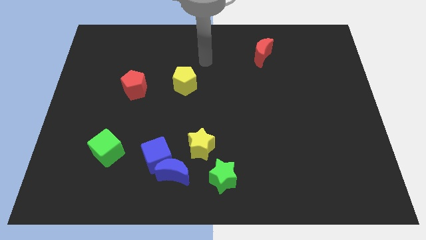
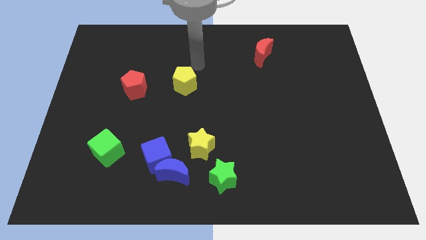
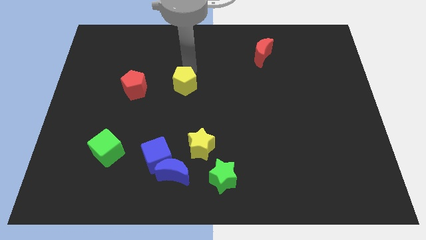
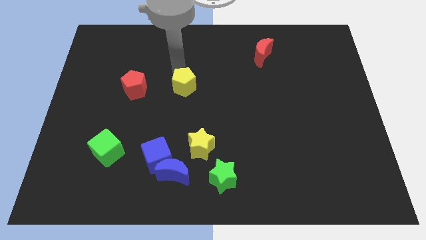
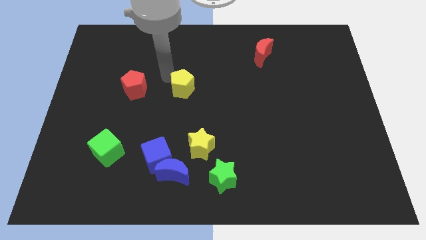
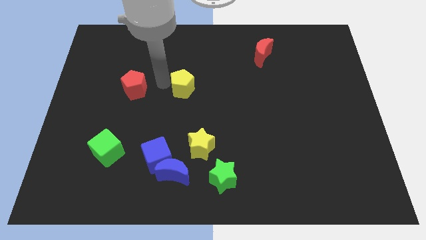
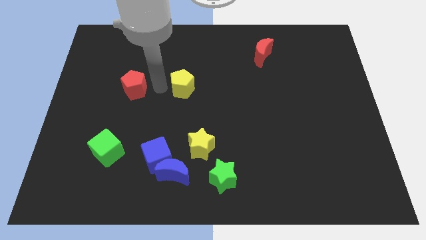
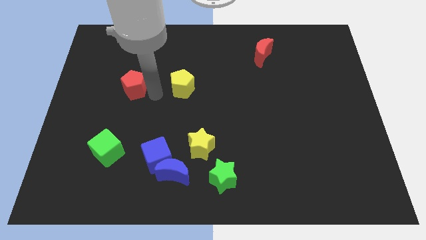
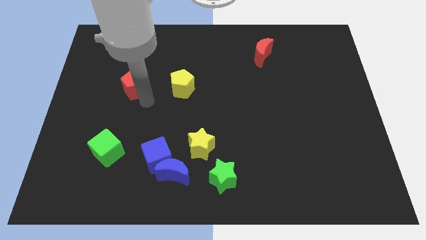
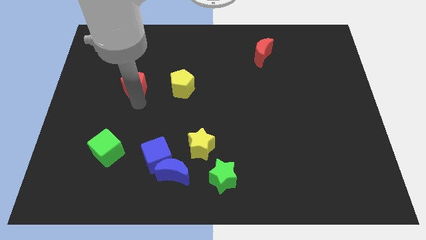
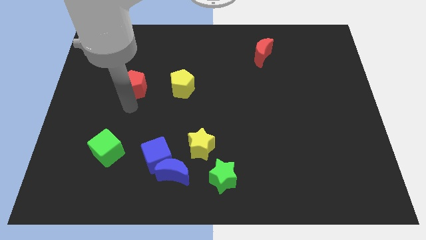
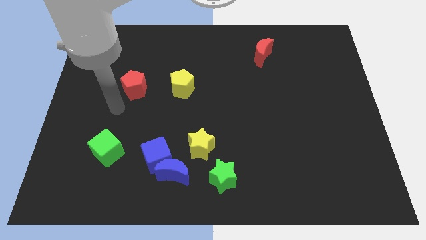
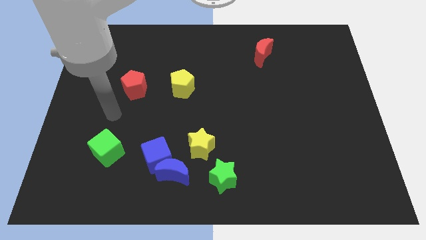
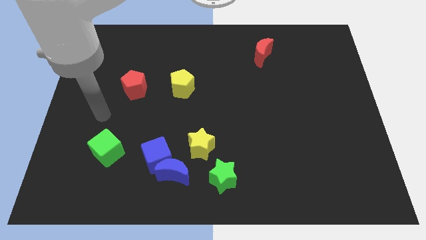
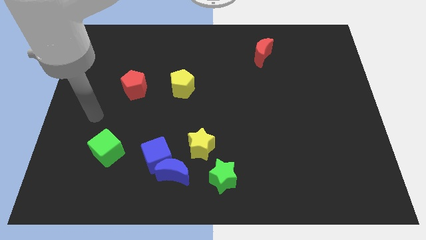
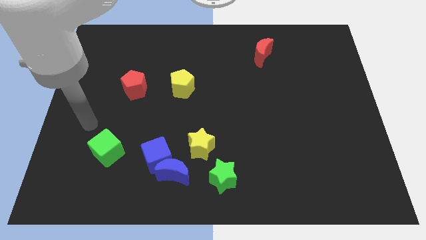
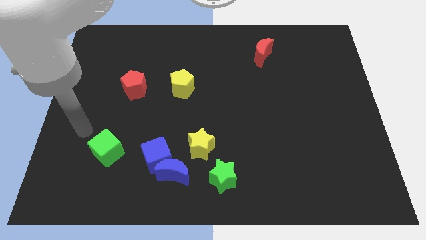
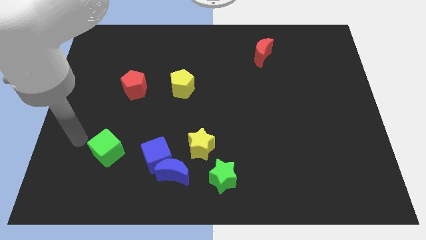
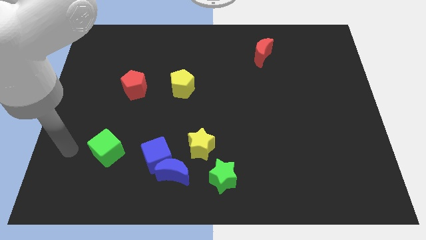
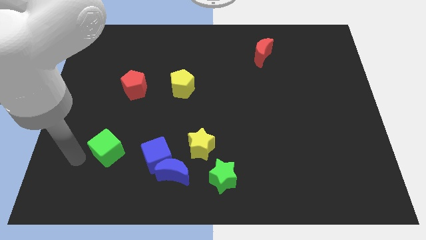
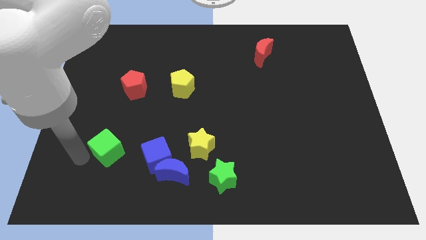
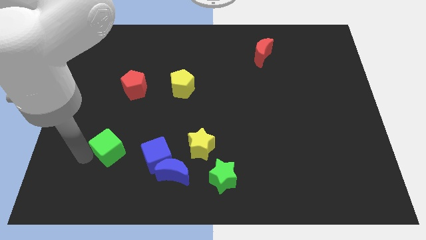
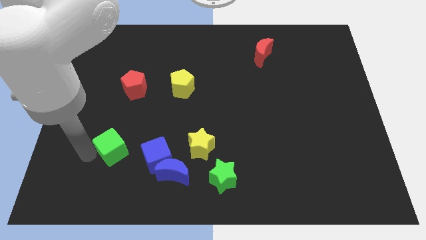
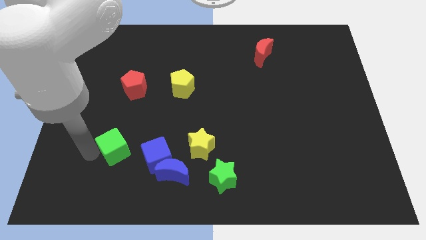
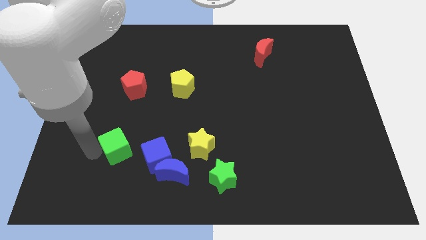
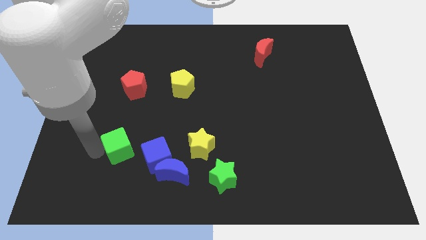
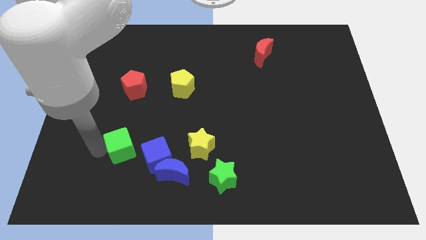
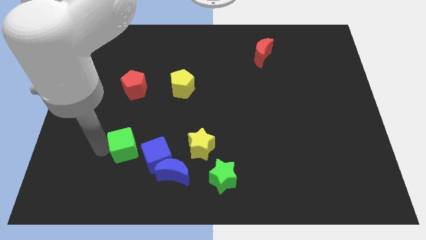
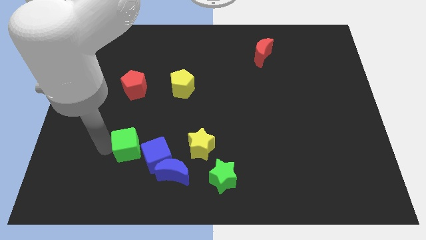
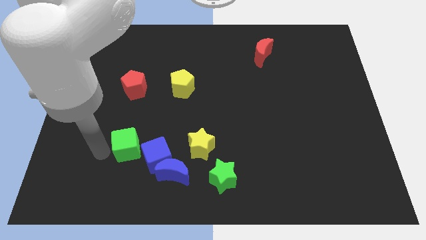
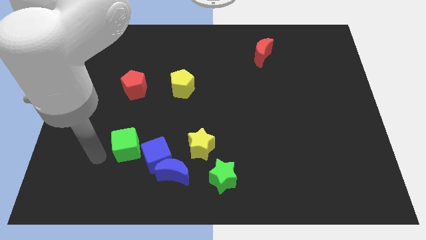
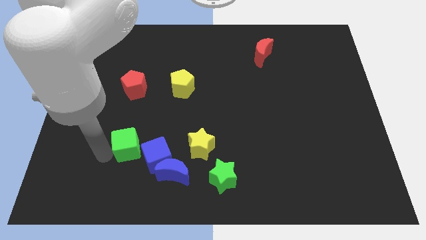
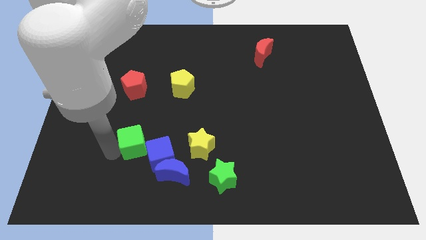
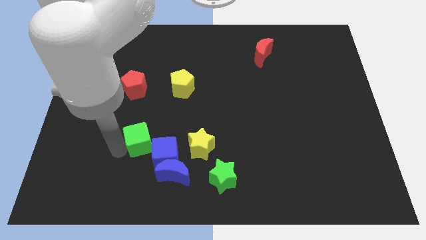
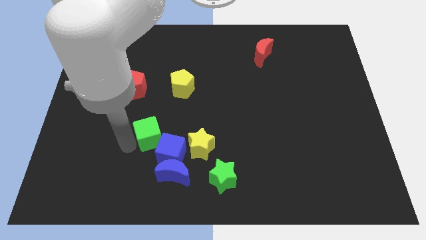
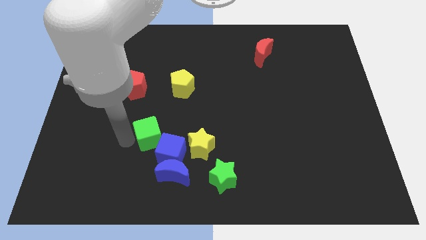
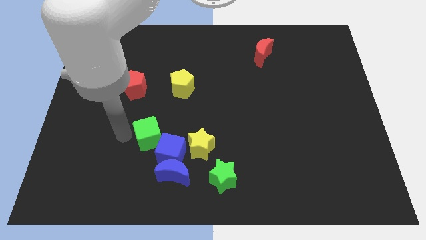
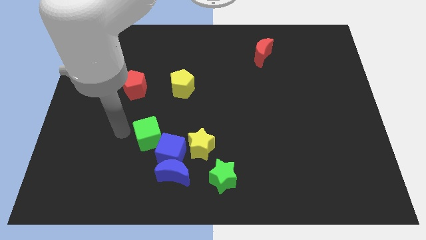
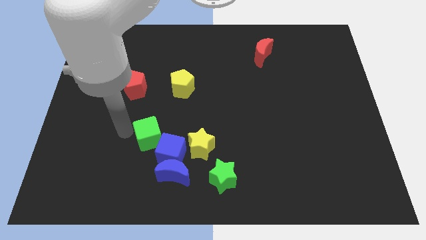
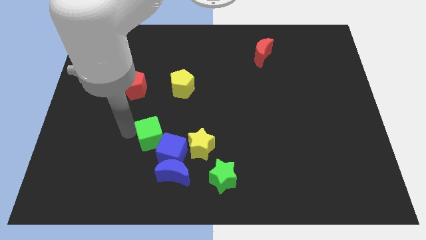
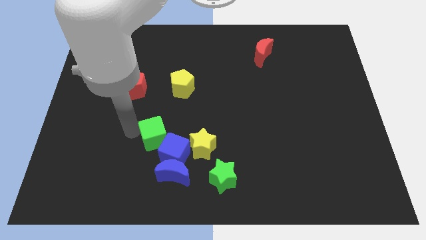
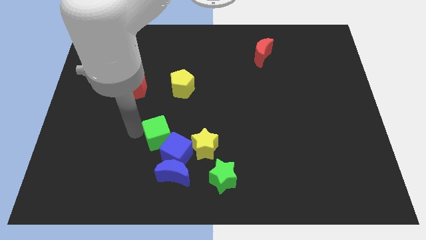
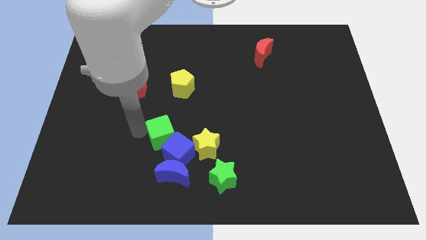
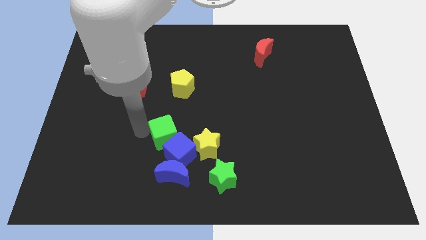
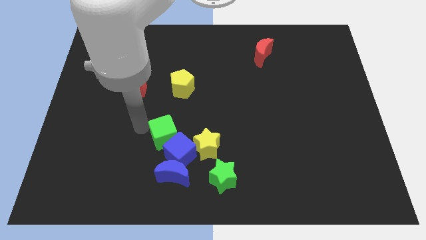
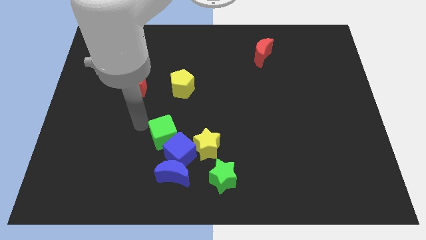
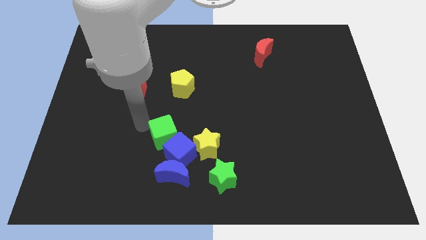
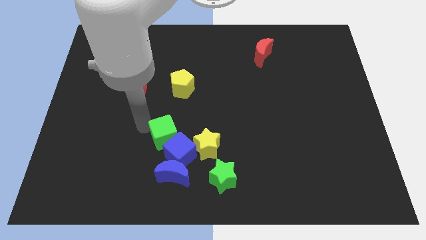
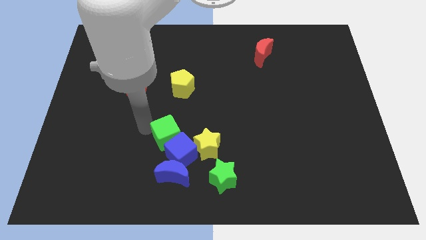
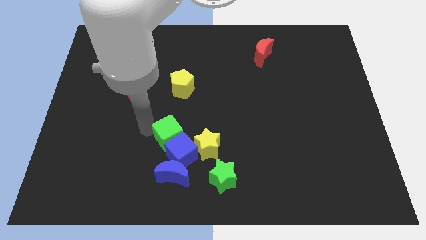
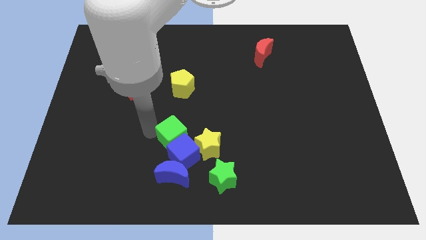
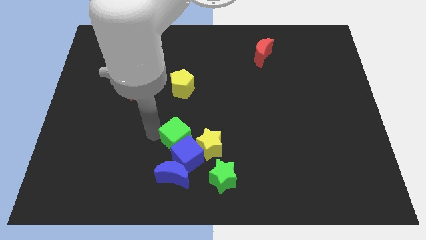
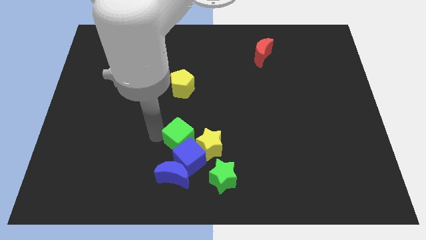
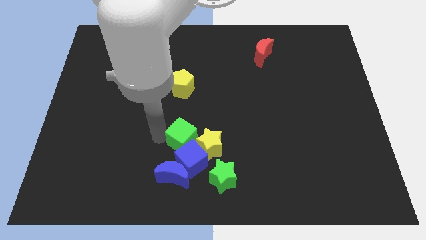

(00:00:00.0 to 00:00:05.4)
move the green cube close to the yellow star

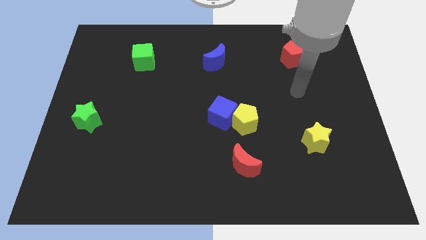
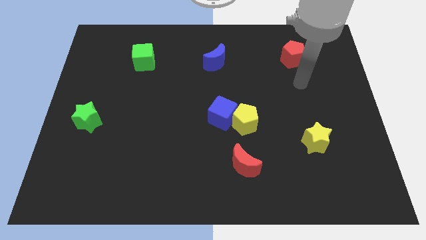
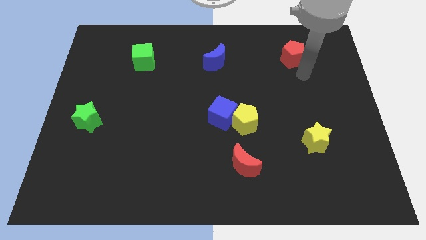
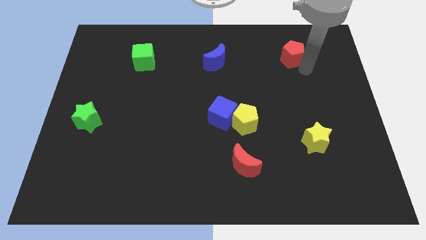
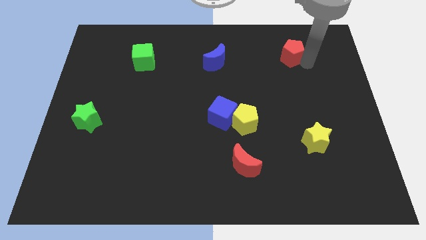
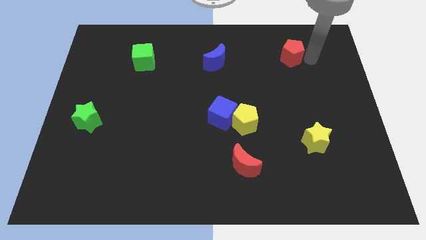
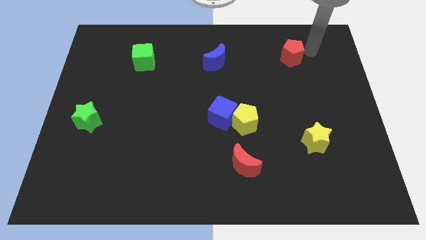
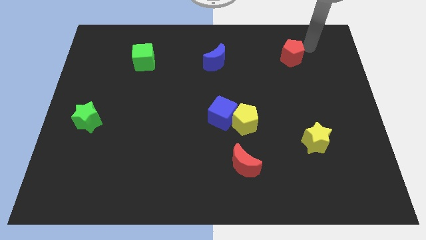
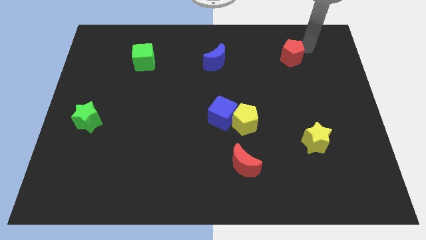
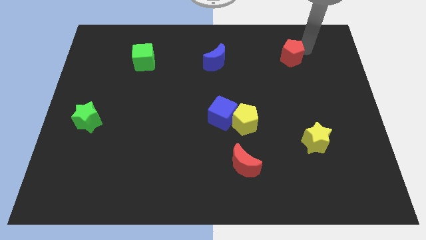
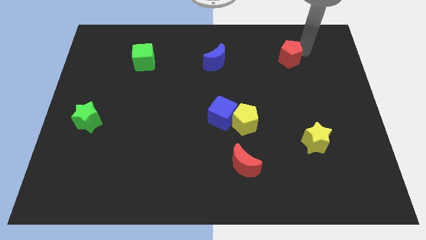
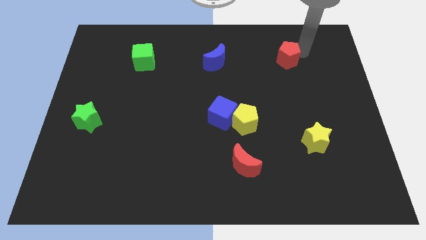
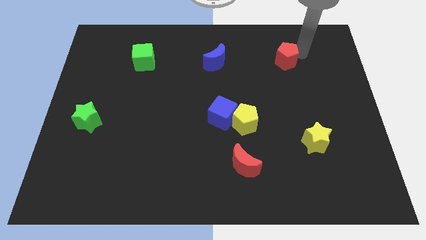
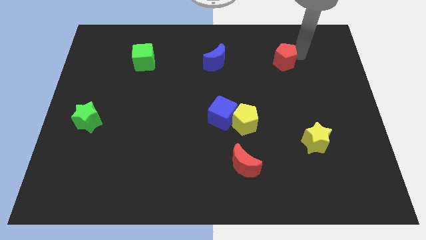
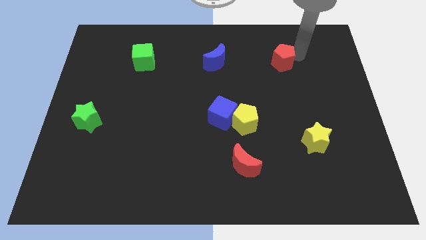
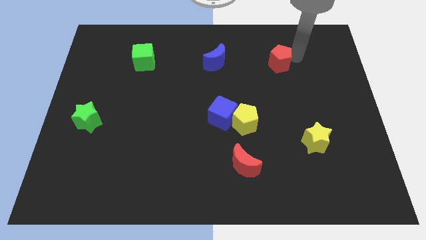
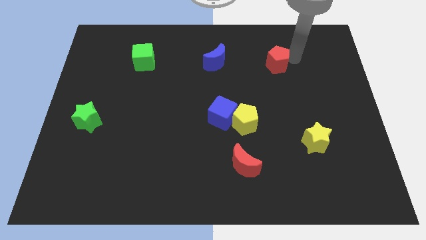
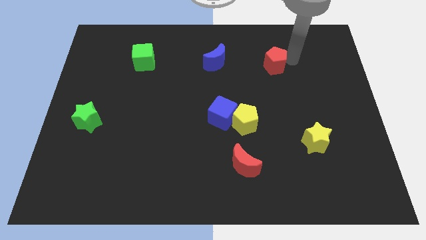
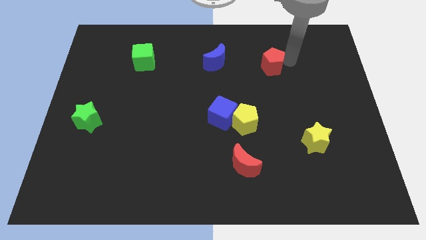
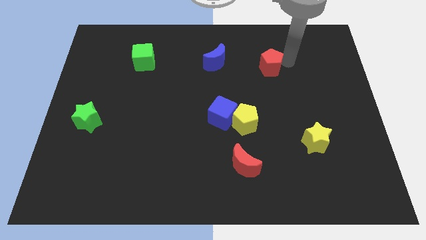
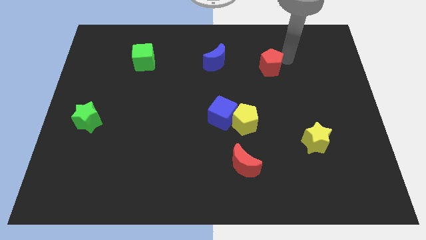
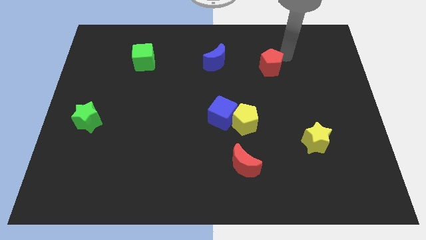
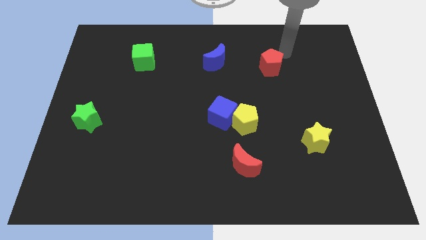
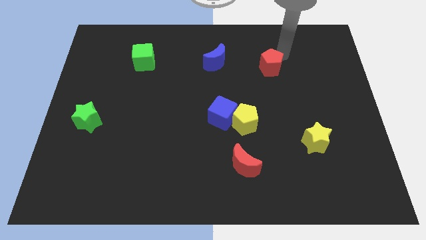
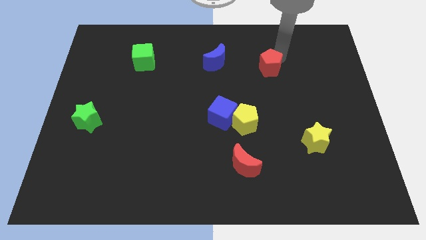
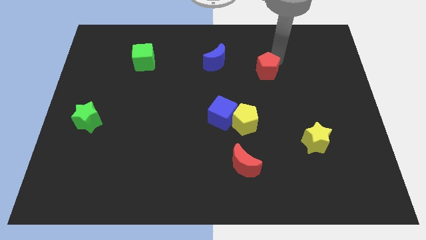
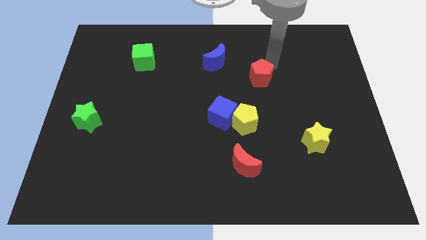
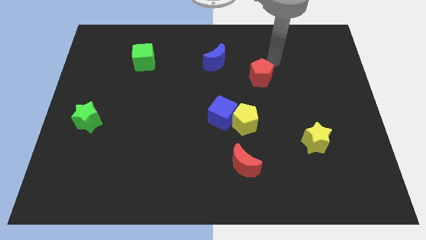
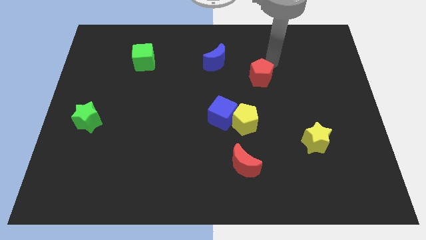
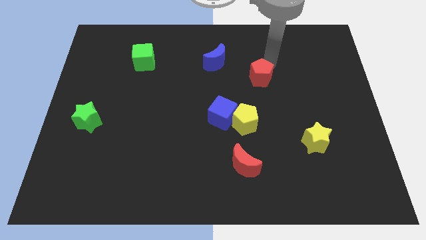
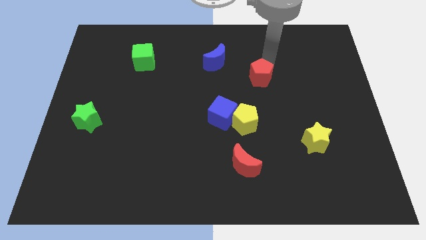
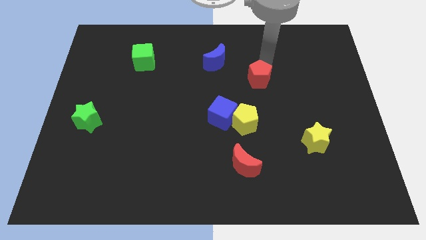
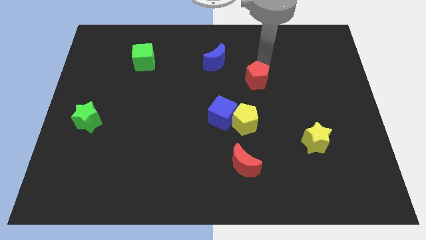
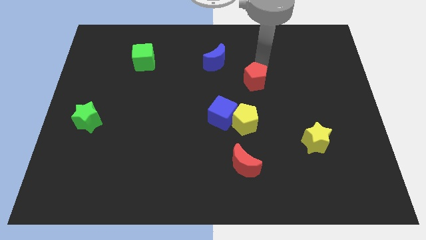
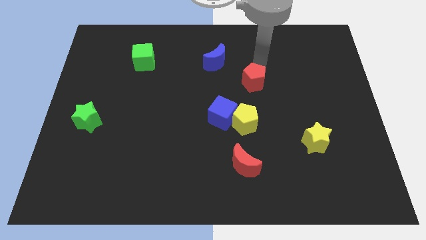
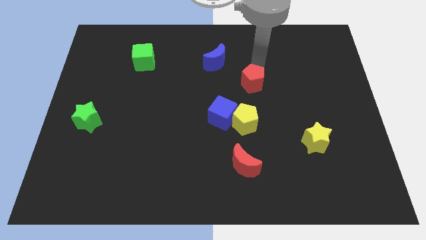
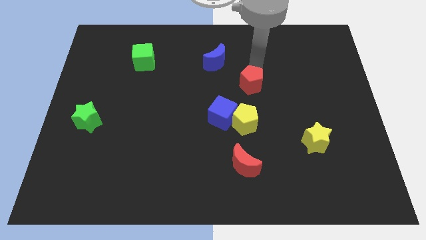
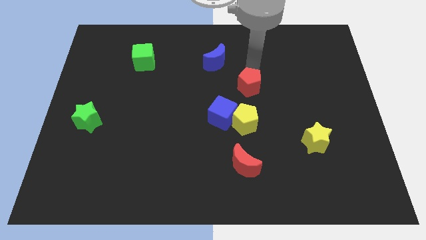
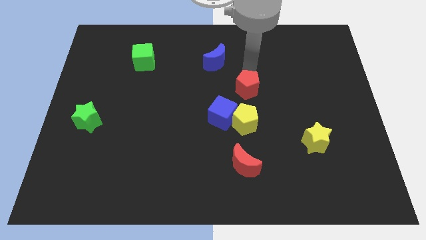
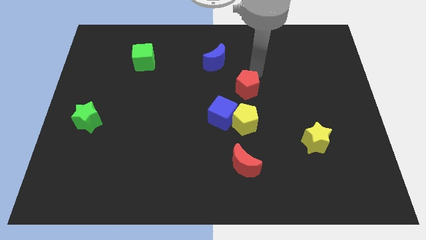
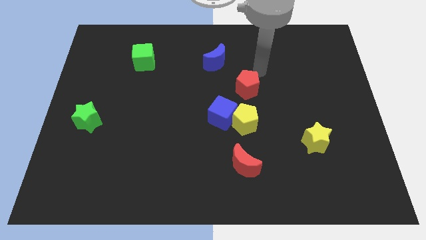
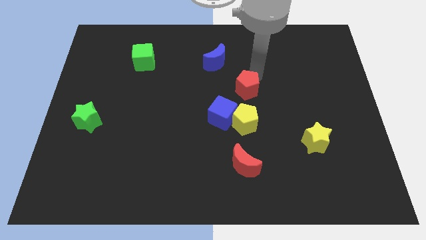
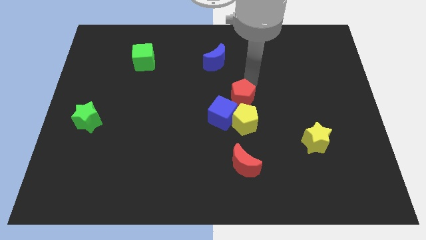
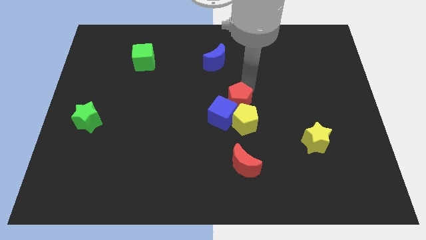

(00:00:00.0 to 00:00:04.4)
slide the red pentagon towards the blue cube
